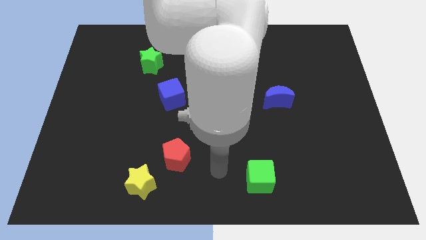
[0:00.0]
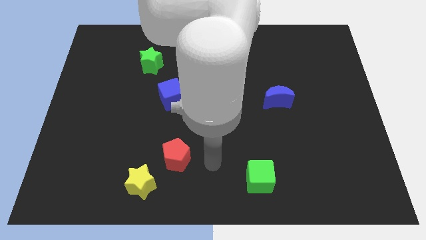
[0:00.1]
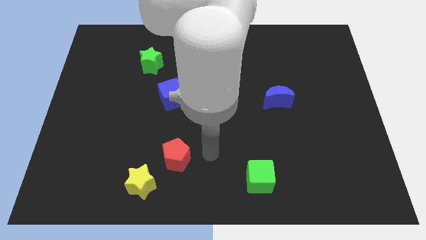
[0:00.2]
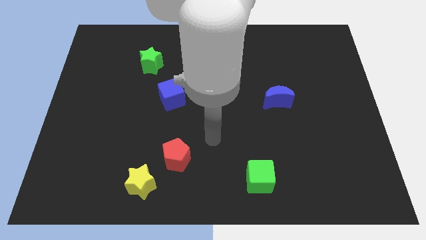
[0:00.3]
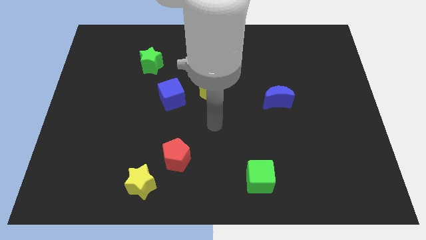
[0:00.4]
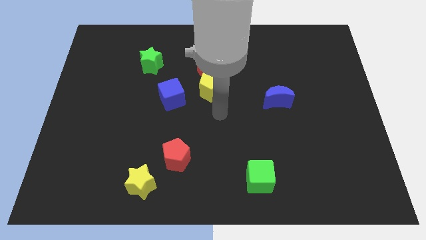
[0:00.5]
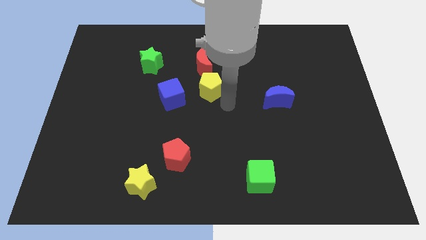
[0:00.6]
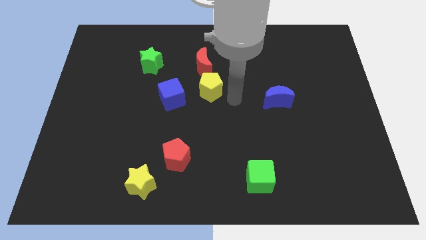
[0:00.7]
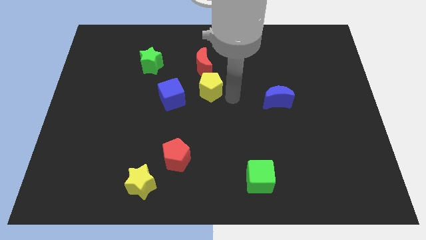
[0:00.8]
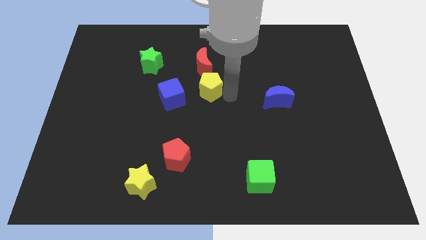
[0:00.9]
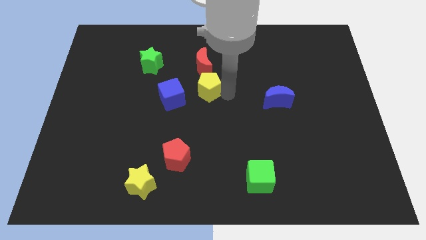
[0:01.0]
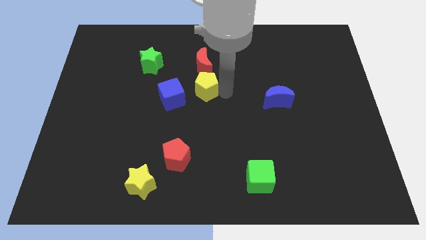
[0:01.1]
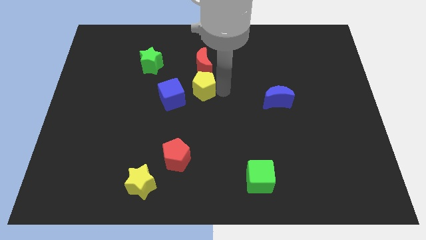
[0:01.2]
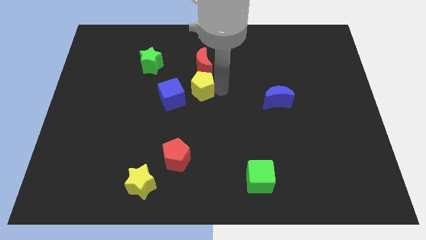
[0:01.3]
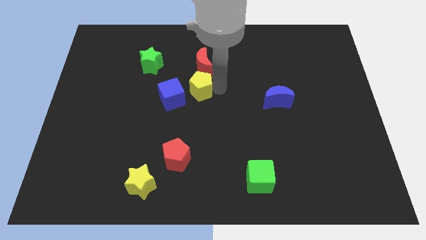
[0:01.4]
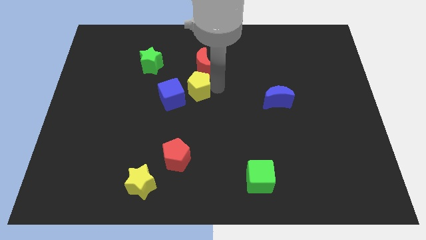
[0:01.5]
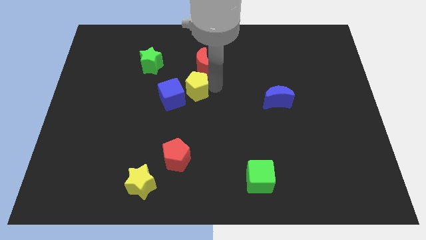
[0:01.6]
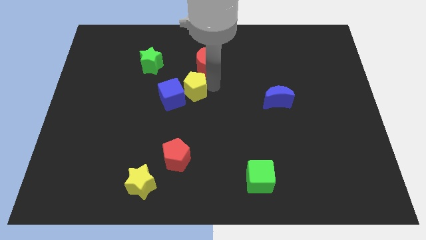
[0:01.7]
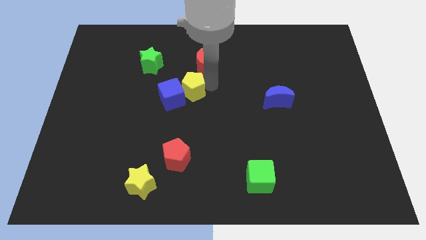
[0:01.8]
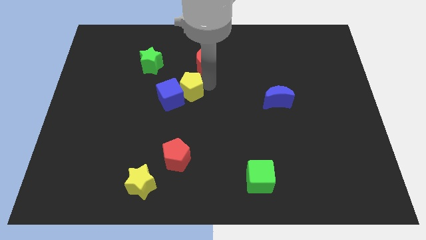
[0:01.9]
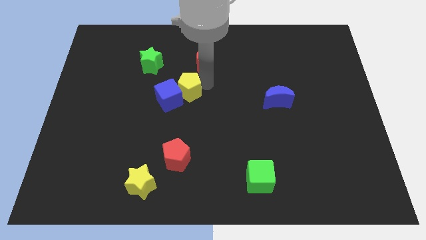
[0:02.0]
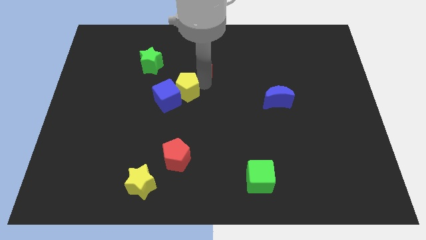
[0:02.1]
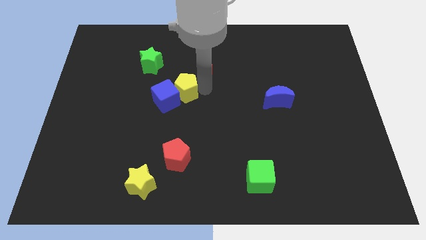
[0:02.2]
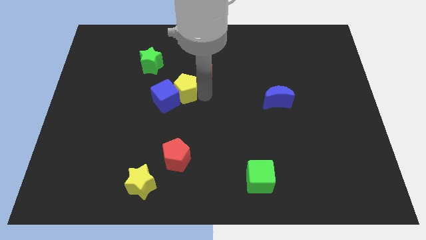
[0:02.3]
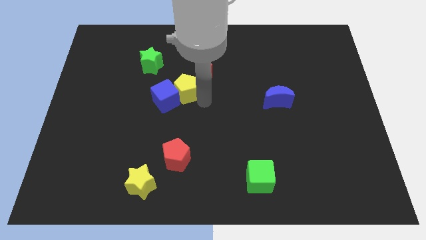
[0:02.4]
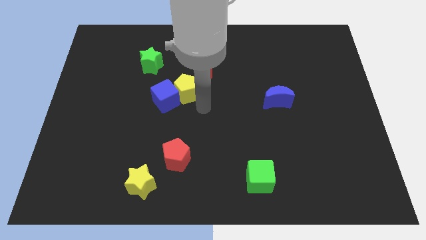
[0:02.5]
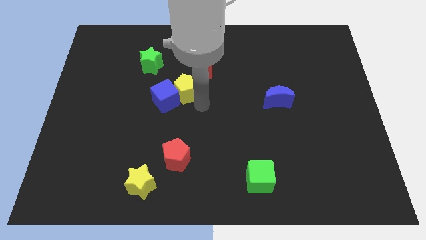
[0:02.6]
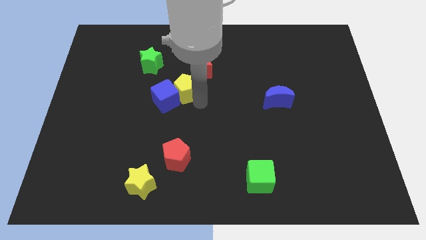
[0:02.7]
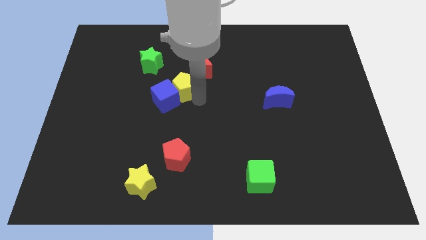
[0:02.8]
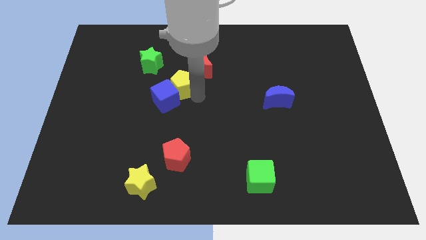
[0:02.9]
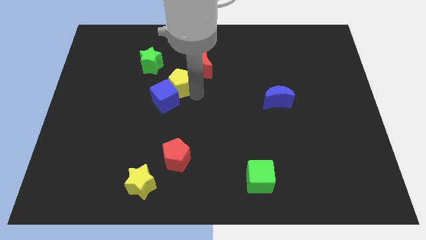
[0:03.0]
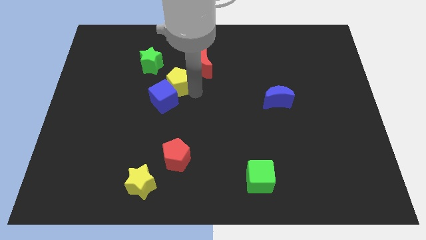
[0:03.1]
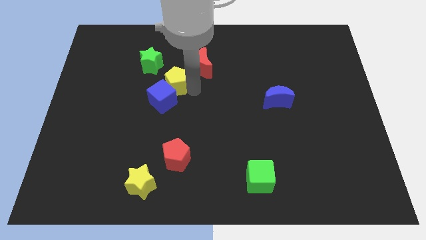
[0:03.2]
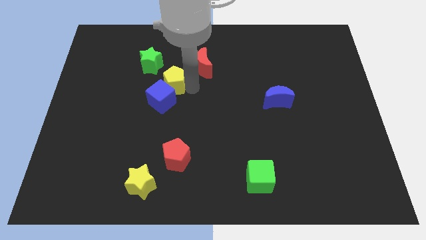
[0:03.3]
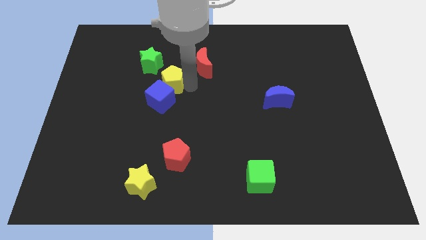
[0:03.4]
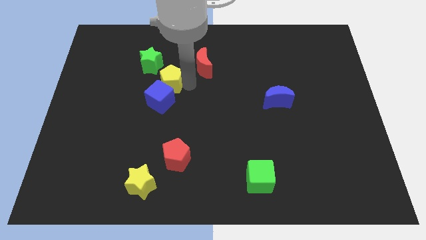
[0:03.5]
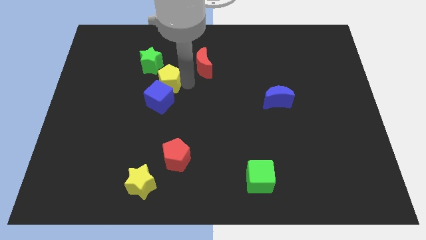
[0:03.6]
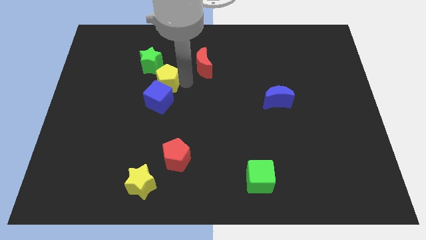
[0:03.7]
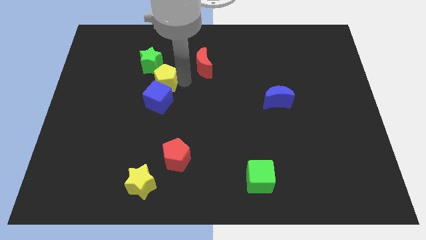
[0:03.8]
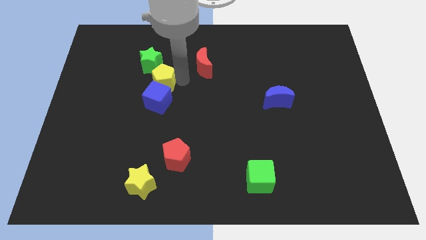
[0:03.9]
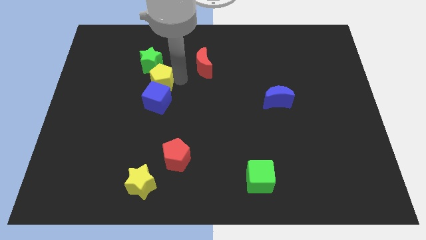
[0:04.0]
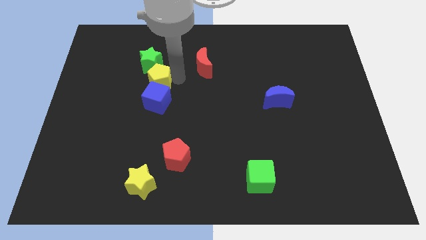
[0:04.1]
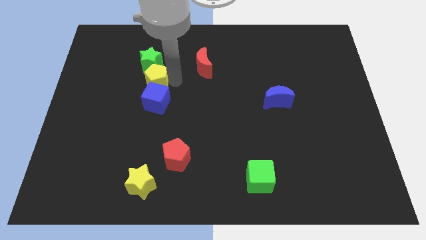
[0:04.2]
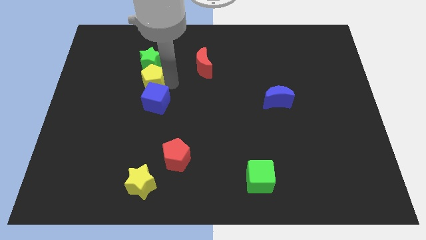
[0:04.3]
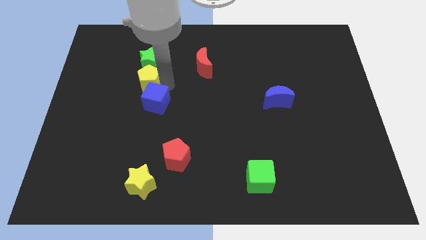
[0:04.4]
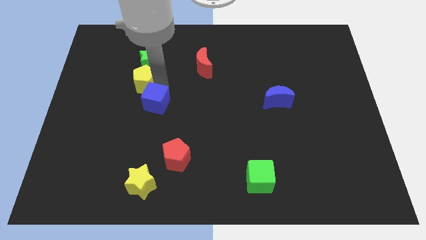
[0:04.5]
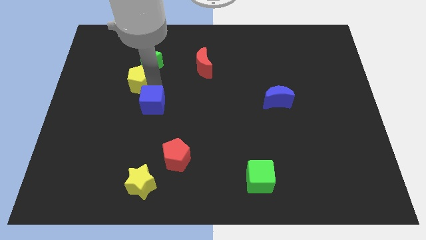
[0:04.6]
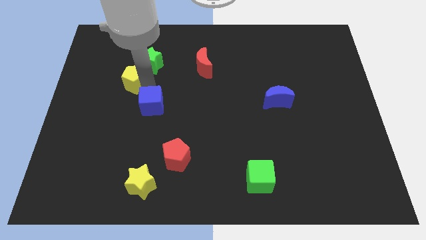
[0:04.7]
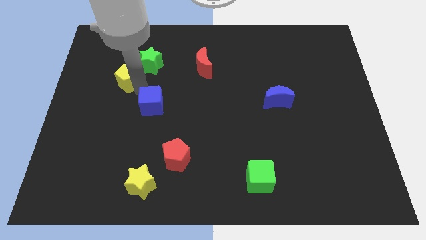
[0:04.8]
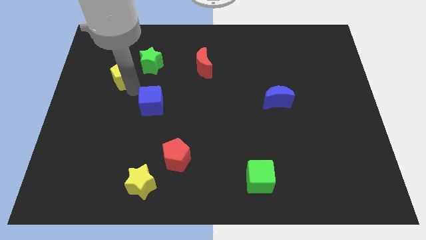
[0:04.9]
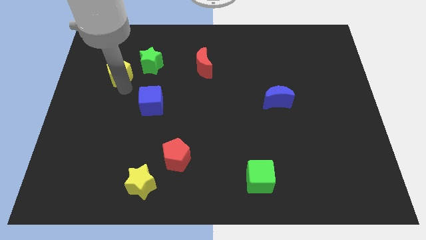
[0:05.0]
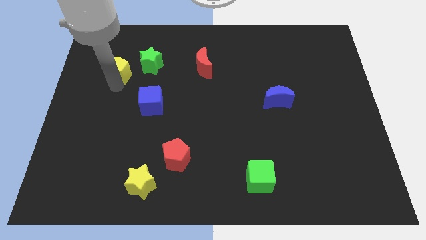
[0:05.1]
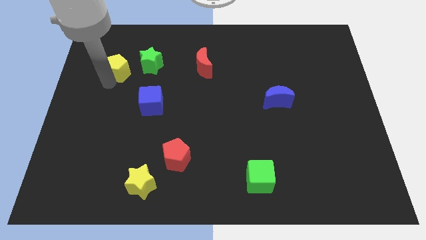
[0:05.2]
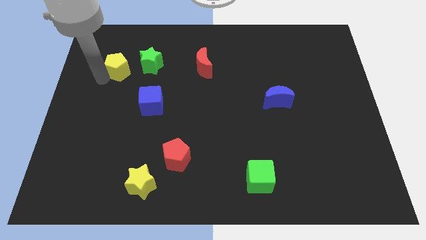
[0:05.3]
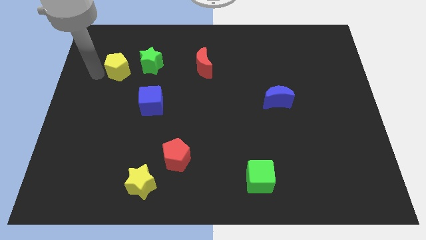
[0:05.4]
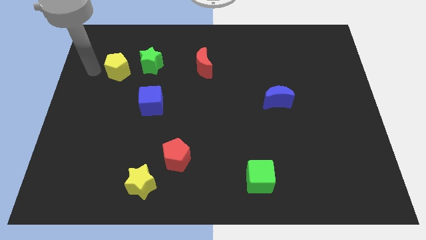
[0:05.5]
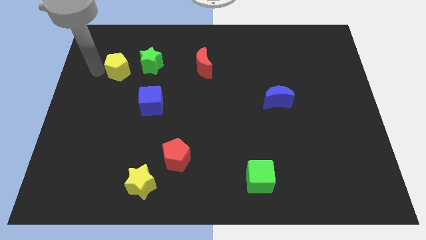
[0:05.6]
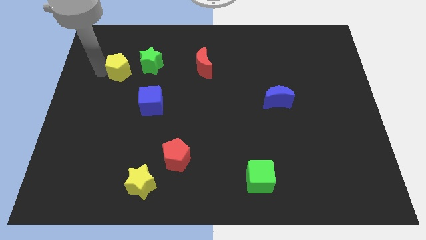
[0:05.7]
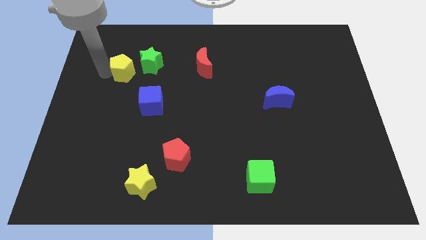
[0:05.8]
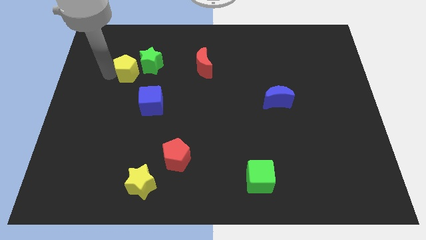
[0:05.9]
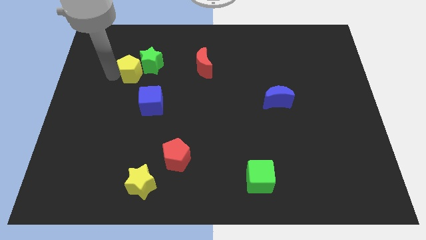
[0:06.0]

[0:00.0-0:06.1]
move the yellow pentagon close to the green star

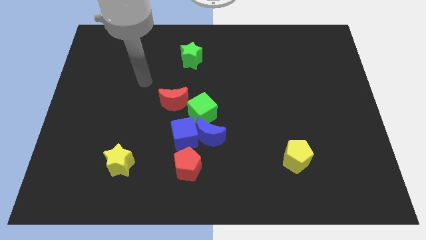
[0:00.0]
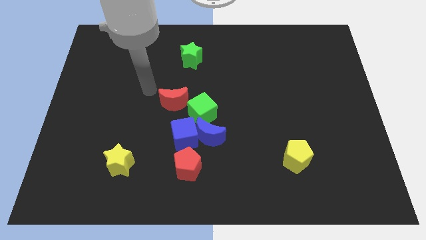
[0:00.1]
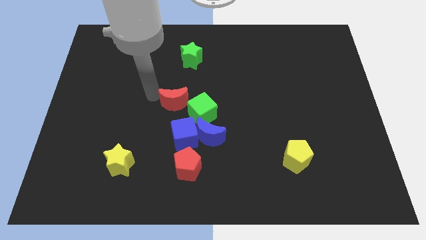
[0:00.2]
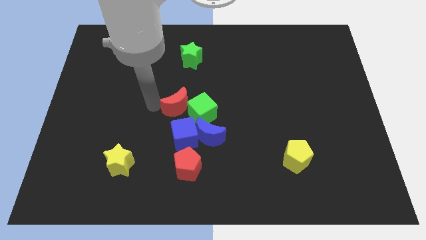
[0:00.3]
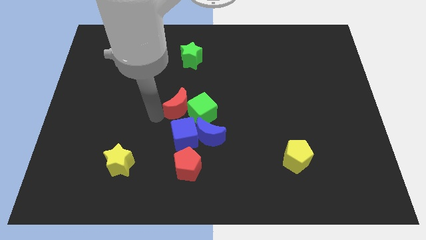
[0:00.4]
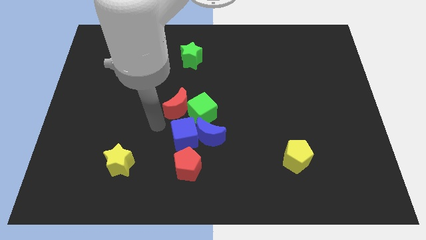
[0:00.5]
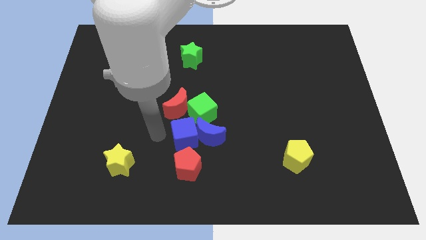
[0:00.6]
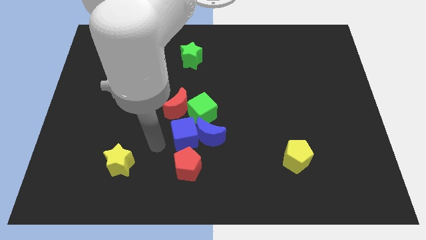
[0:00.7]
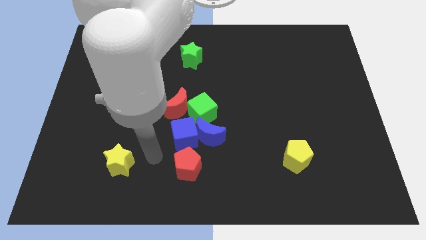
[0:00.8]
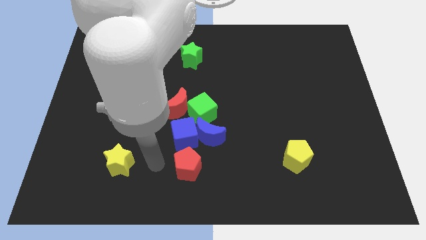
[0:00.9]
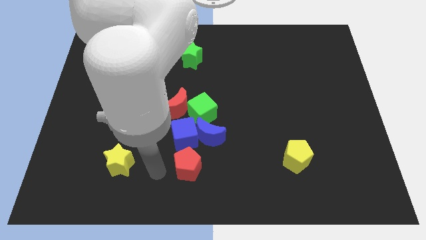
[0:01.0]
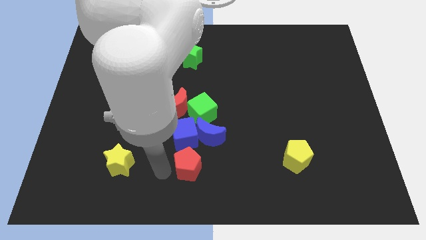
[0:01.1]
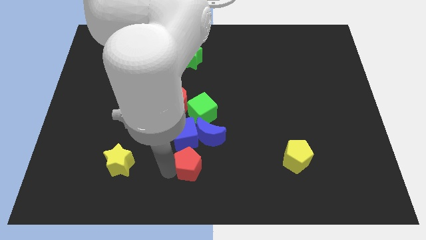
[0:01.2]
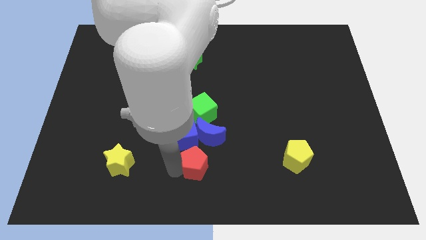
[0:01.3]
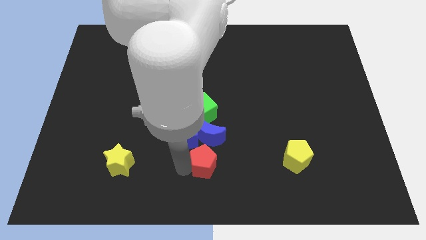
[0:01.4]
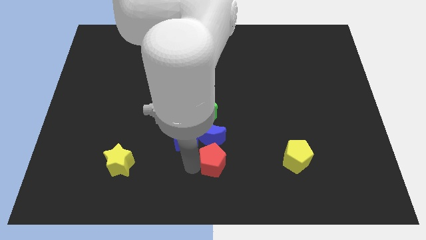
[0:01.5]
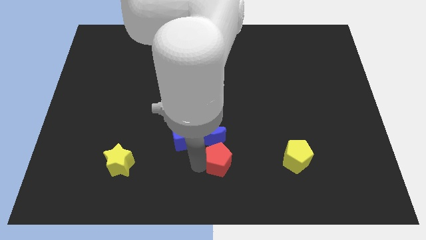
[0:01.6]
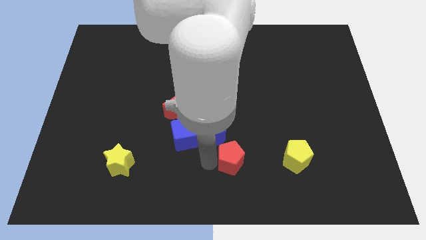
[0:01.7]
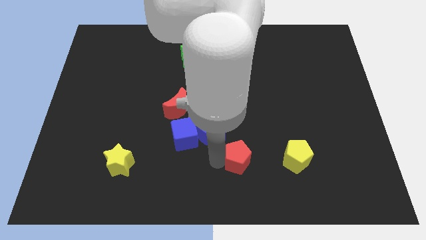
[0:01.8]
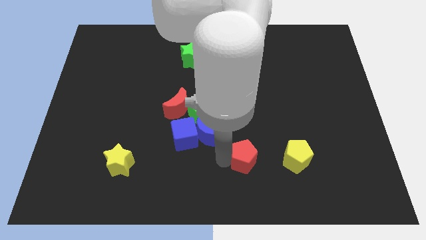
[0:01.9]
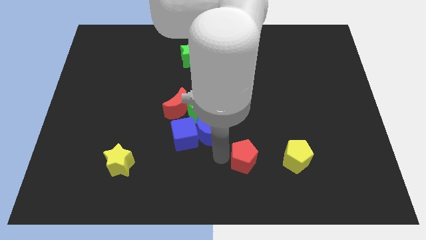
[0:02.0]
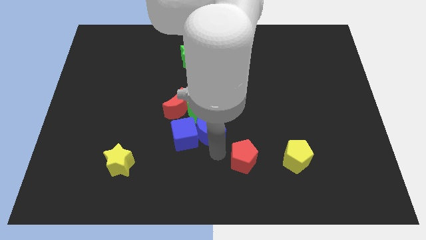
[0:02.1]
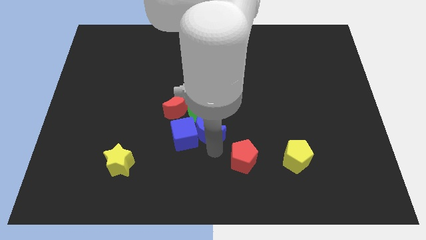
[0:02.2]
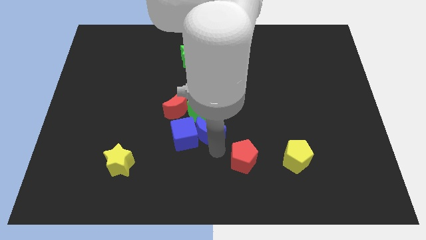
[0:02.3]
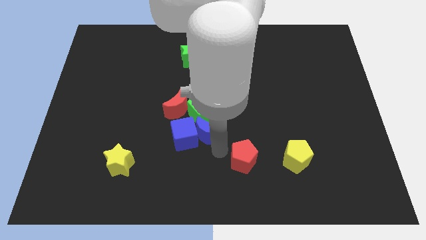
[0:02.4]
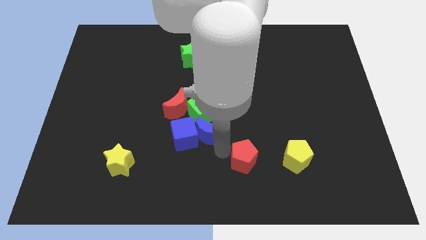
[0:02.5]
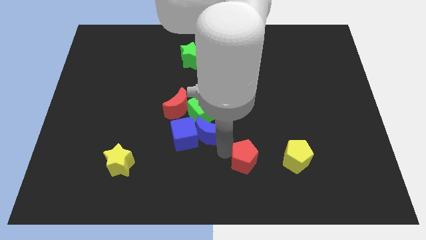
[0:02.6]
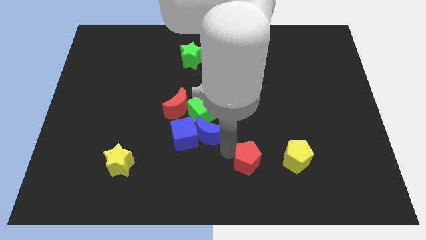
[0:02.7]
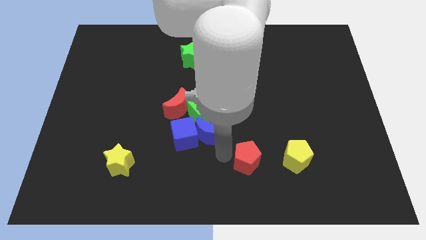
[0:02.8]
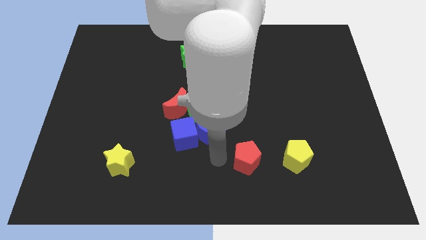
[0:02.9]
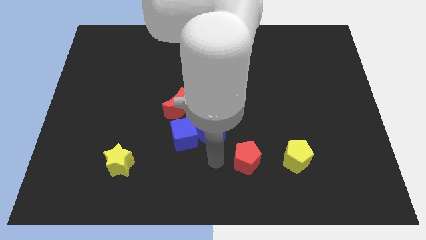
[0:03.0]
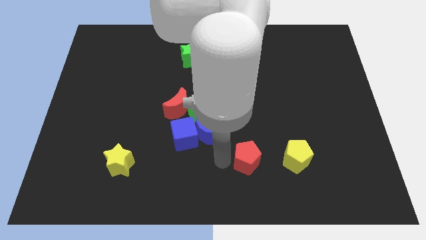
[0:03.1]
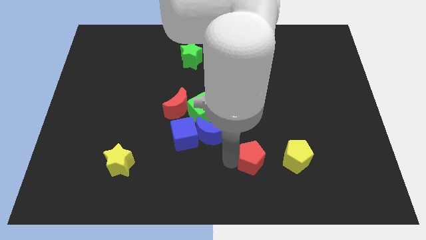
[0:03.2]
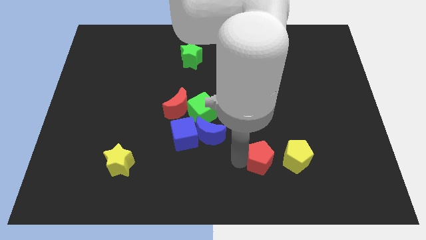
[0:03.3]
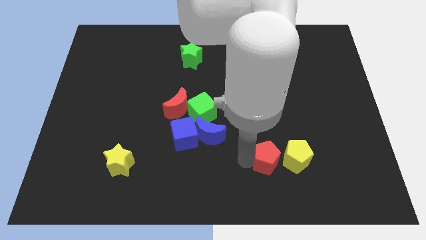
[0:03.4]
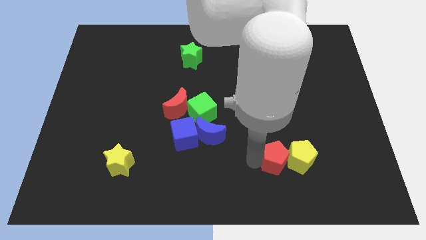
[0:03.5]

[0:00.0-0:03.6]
put the red pentagon towards the yellow pentagon
